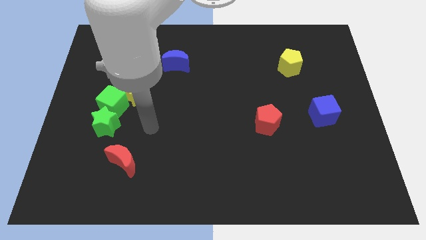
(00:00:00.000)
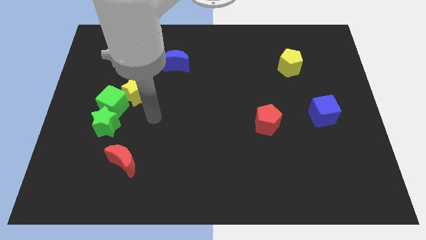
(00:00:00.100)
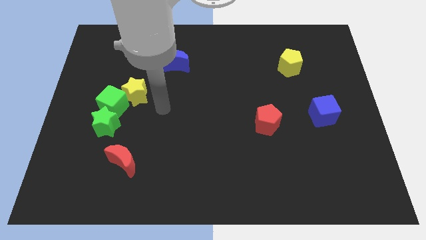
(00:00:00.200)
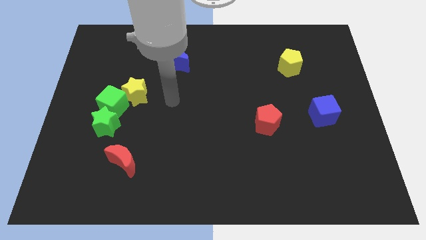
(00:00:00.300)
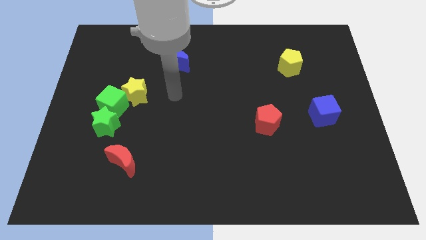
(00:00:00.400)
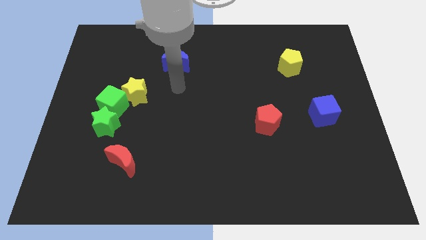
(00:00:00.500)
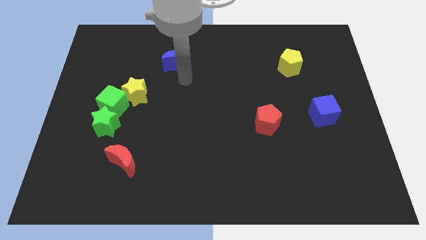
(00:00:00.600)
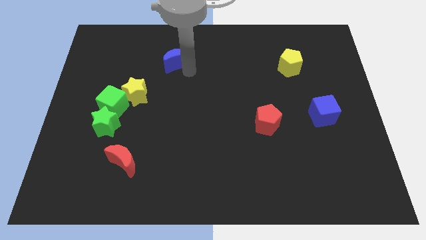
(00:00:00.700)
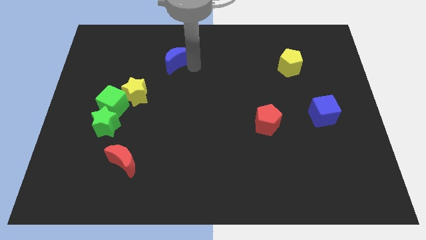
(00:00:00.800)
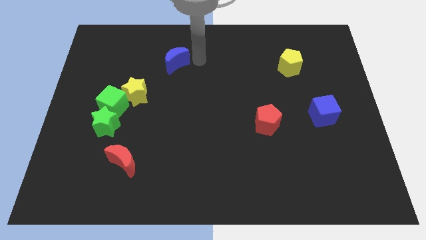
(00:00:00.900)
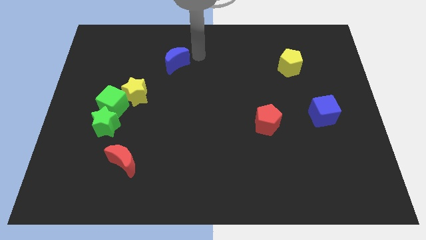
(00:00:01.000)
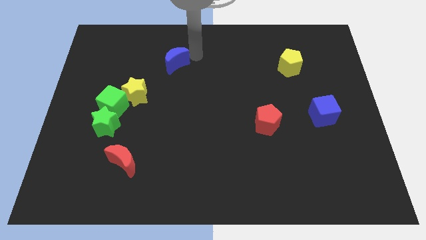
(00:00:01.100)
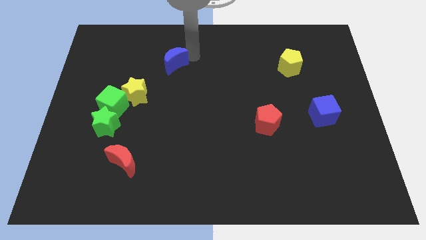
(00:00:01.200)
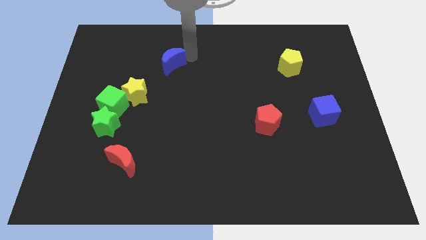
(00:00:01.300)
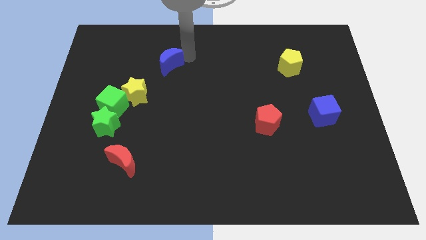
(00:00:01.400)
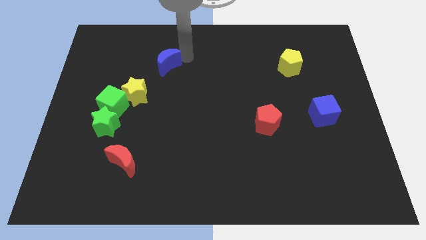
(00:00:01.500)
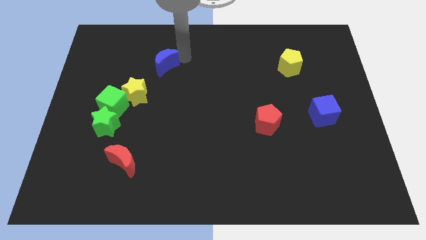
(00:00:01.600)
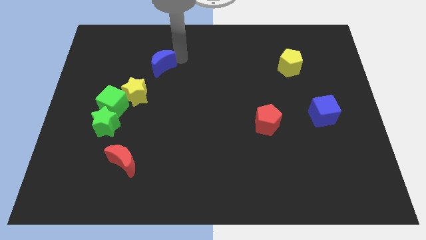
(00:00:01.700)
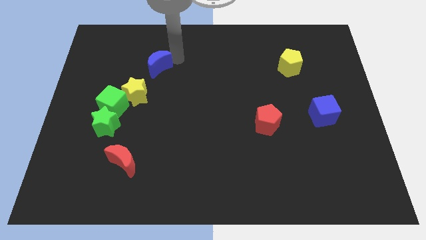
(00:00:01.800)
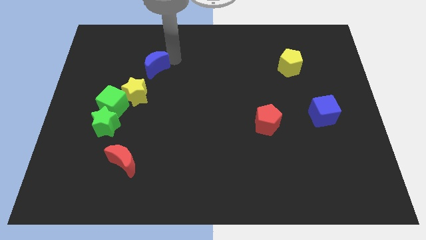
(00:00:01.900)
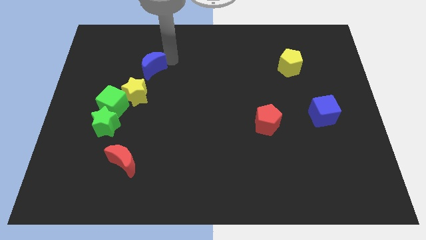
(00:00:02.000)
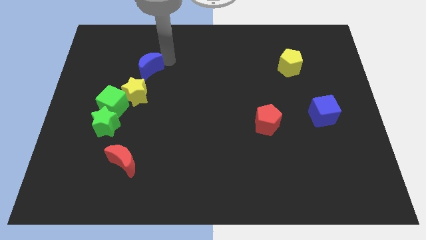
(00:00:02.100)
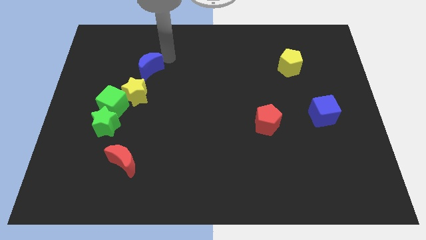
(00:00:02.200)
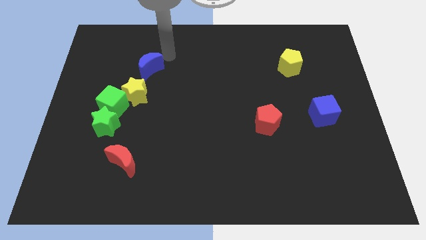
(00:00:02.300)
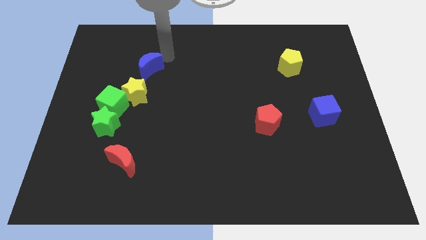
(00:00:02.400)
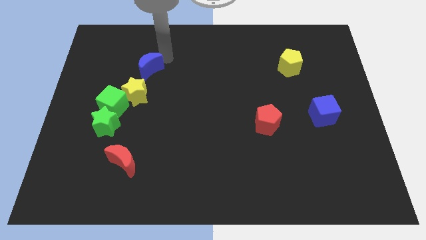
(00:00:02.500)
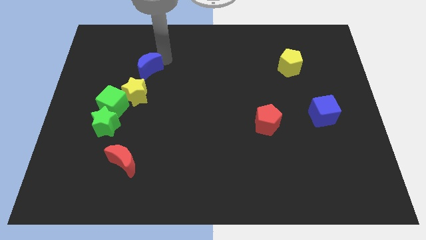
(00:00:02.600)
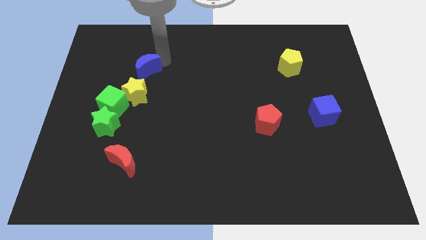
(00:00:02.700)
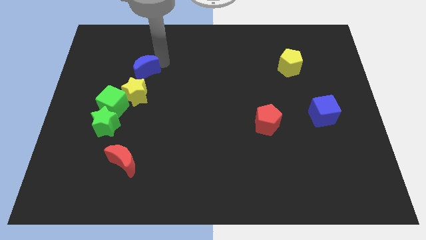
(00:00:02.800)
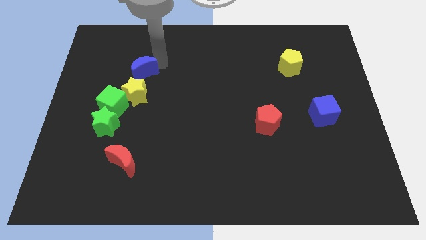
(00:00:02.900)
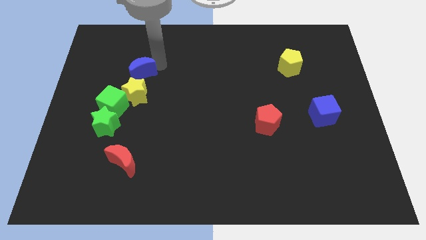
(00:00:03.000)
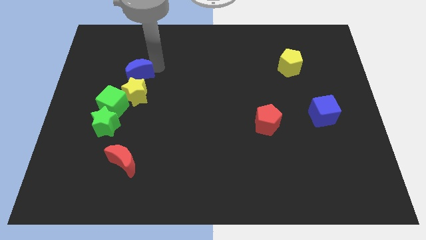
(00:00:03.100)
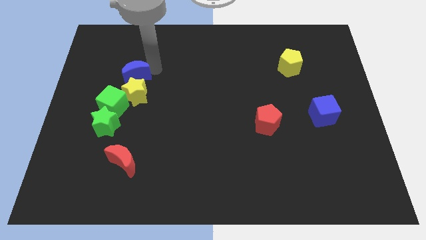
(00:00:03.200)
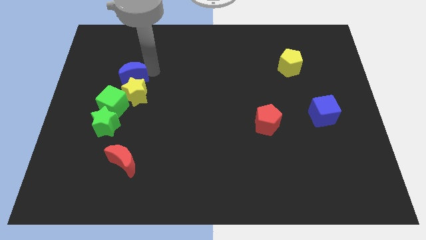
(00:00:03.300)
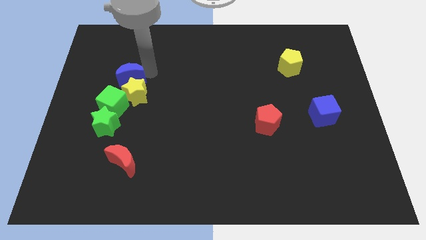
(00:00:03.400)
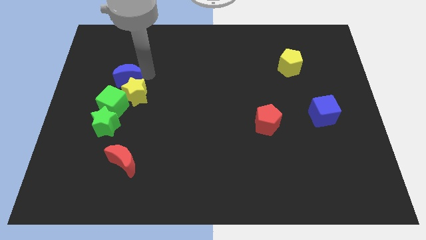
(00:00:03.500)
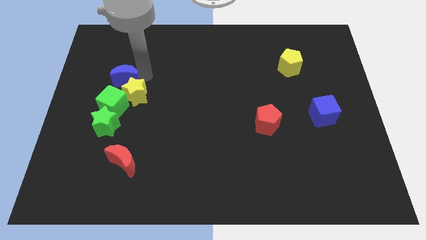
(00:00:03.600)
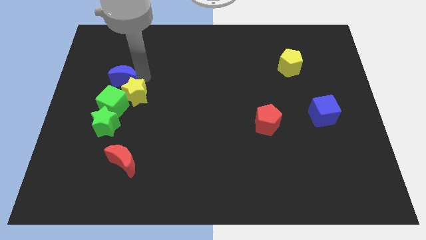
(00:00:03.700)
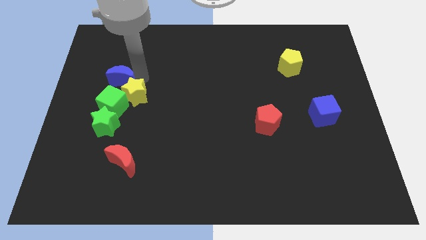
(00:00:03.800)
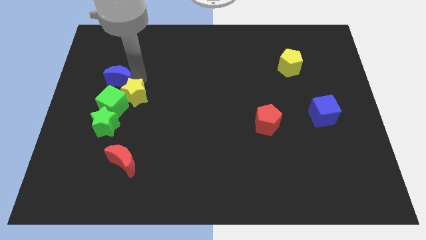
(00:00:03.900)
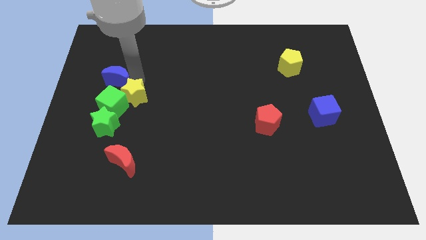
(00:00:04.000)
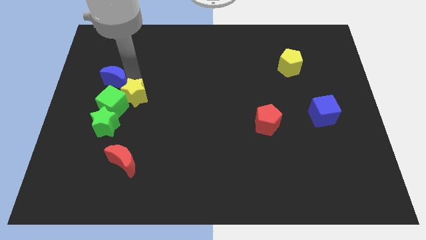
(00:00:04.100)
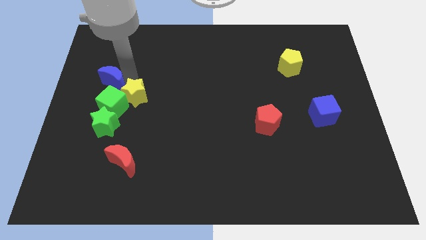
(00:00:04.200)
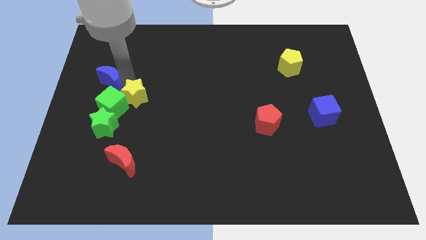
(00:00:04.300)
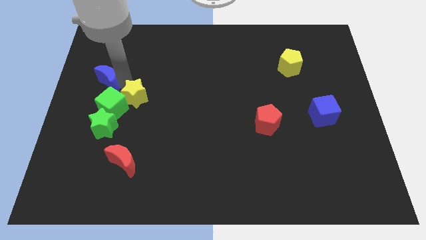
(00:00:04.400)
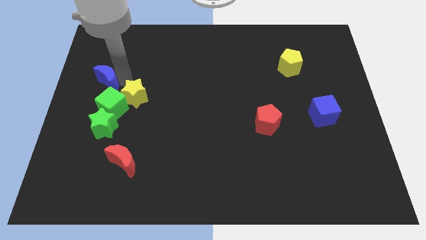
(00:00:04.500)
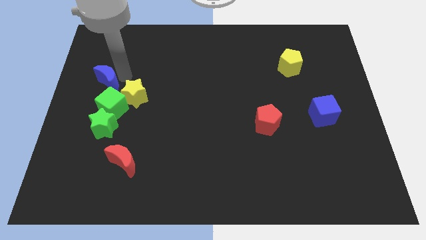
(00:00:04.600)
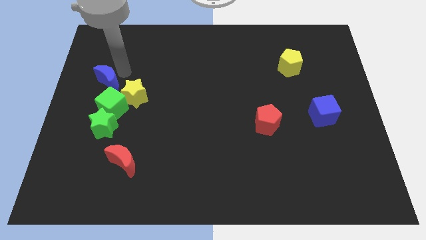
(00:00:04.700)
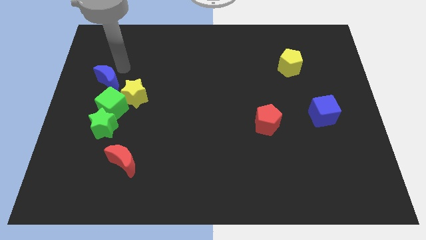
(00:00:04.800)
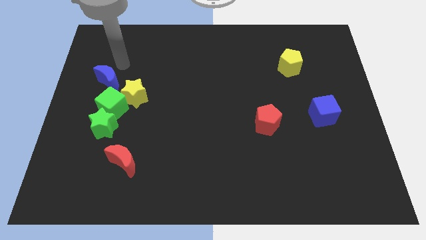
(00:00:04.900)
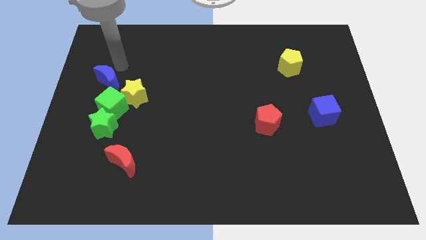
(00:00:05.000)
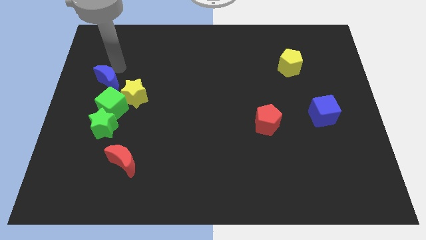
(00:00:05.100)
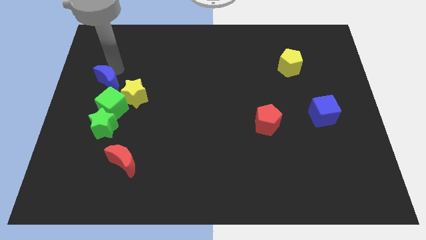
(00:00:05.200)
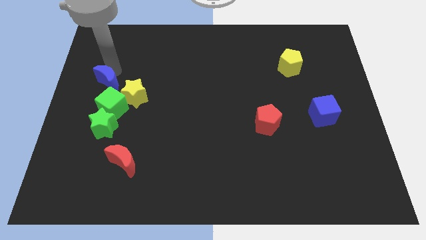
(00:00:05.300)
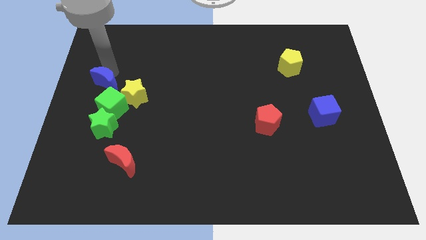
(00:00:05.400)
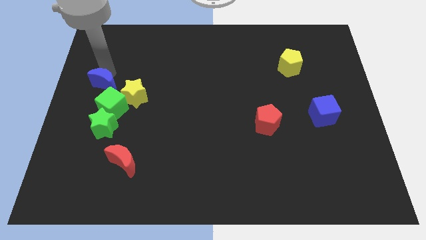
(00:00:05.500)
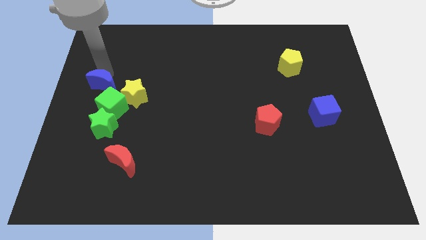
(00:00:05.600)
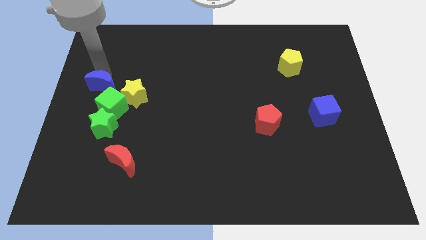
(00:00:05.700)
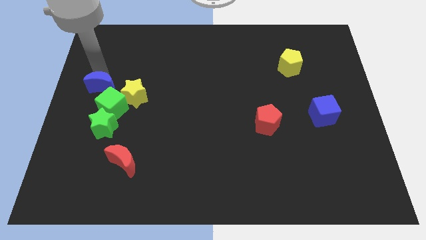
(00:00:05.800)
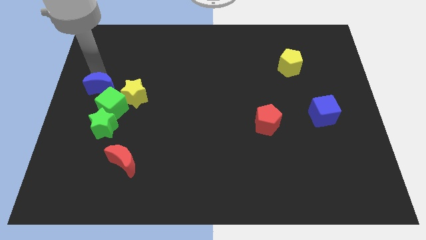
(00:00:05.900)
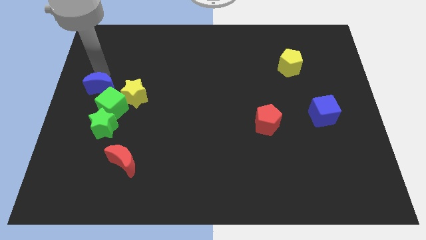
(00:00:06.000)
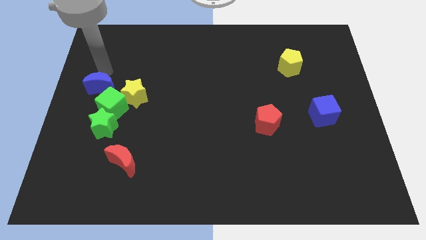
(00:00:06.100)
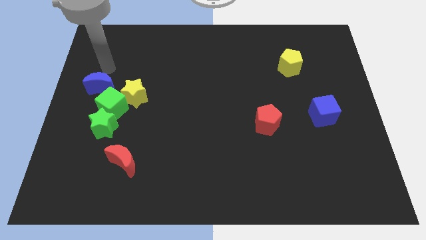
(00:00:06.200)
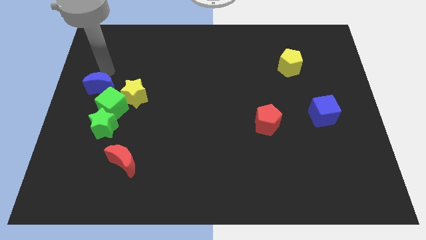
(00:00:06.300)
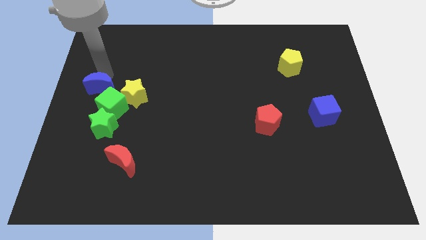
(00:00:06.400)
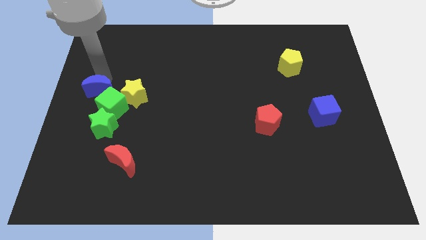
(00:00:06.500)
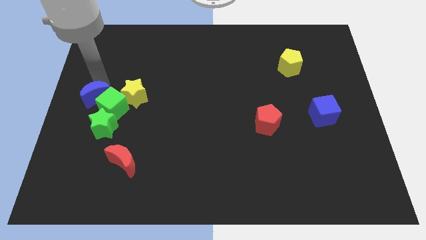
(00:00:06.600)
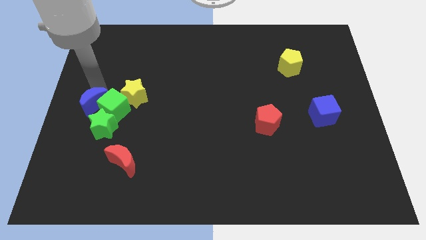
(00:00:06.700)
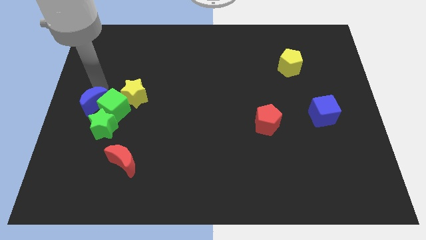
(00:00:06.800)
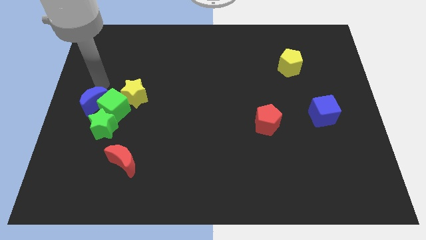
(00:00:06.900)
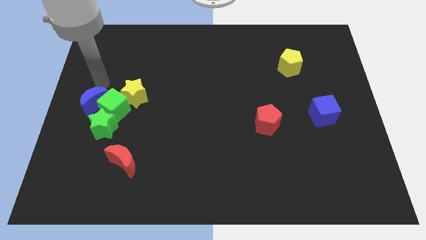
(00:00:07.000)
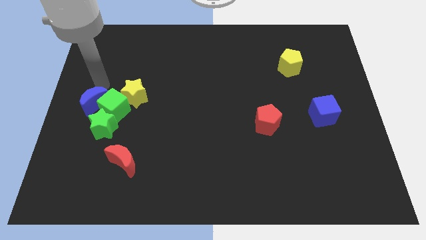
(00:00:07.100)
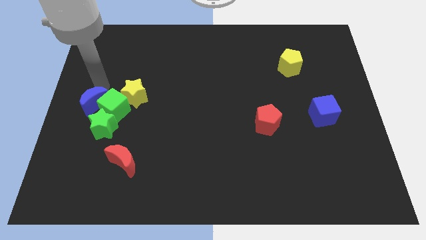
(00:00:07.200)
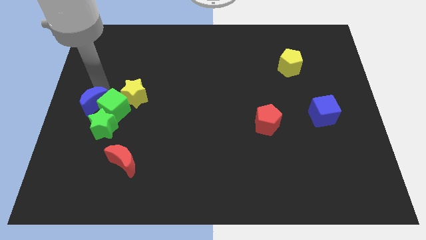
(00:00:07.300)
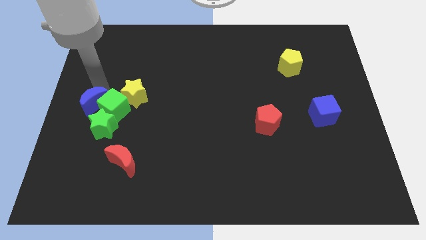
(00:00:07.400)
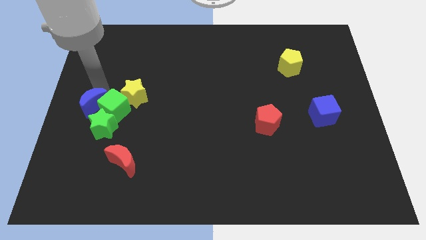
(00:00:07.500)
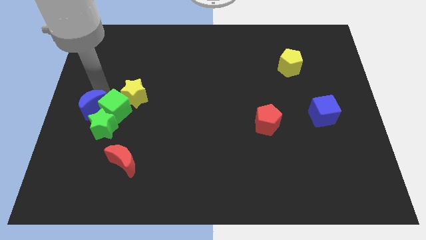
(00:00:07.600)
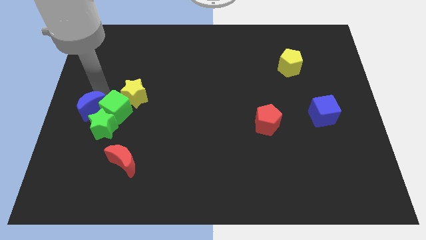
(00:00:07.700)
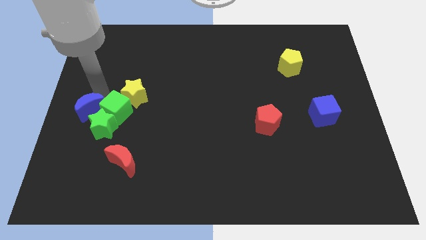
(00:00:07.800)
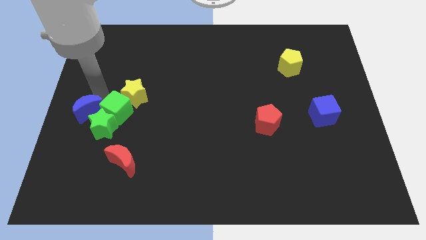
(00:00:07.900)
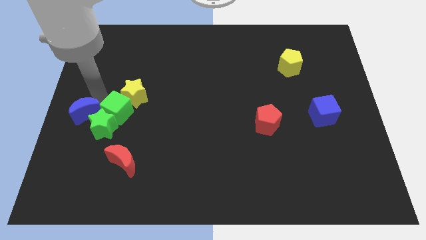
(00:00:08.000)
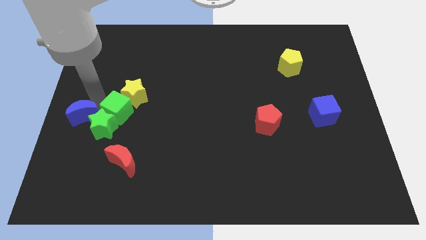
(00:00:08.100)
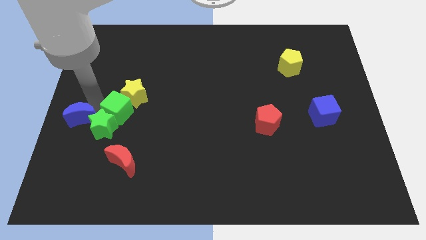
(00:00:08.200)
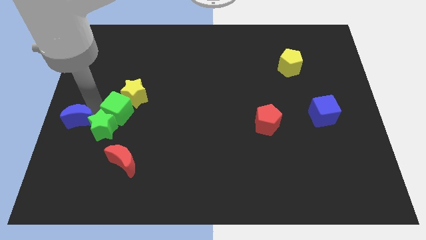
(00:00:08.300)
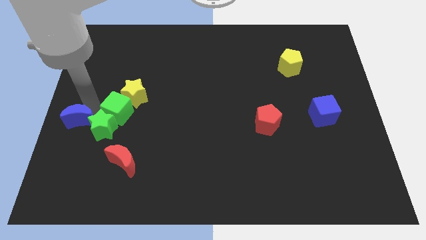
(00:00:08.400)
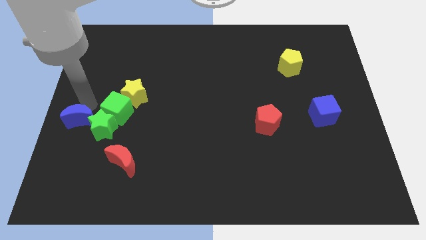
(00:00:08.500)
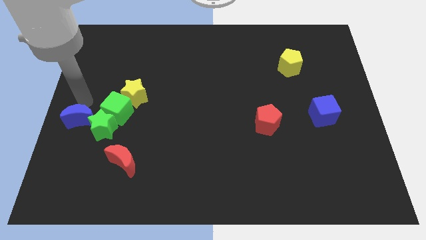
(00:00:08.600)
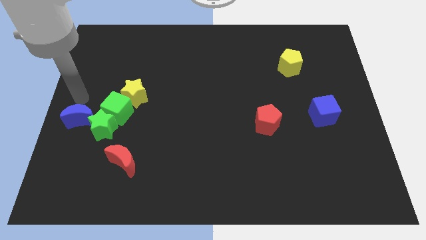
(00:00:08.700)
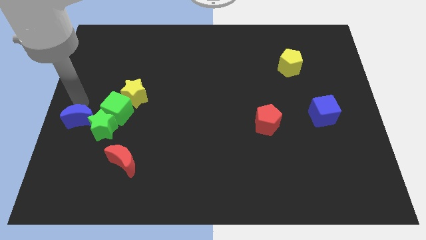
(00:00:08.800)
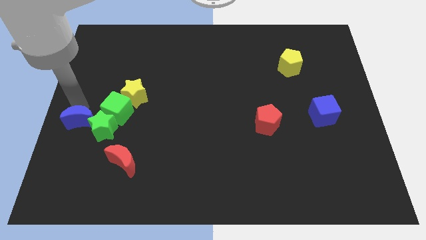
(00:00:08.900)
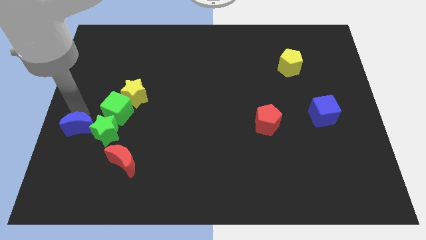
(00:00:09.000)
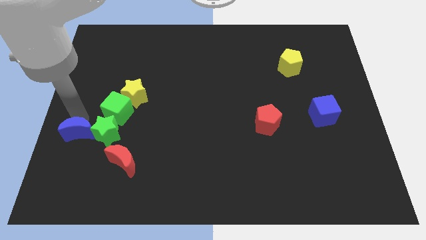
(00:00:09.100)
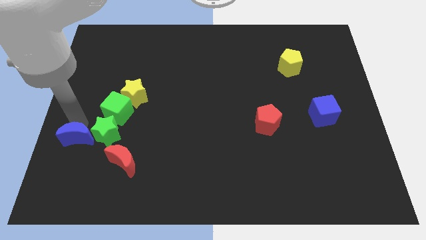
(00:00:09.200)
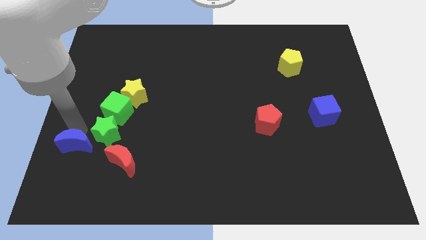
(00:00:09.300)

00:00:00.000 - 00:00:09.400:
move the blue moon to the left of the red moon
